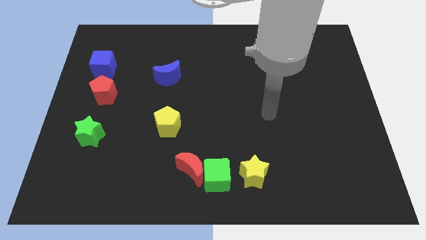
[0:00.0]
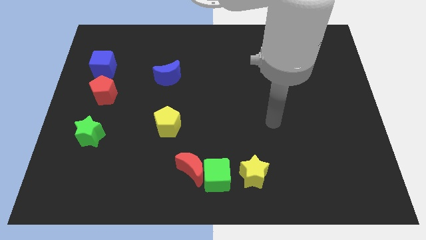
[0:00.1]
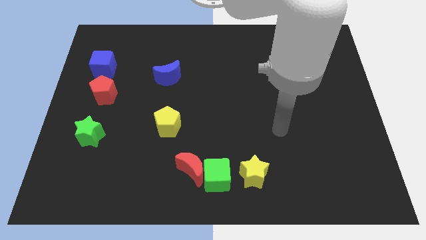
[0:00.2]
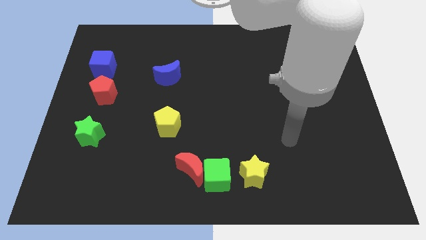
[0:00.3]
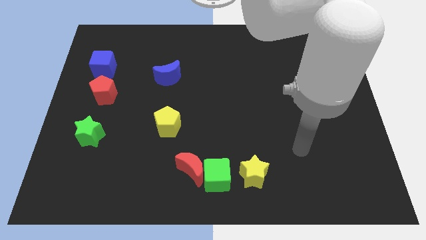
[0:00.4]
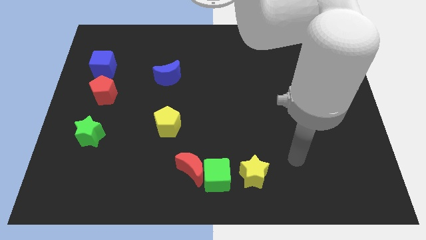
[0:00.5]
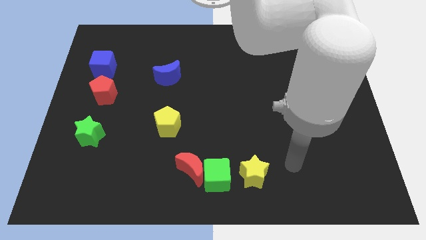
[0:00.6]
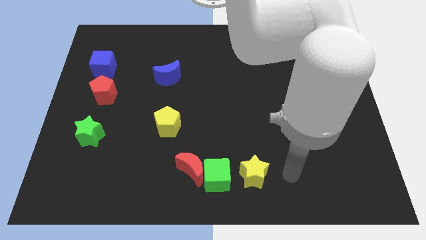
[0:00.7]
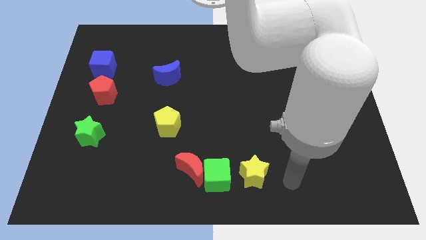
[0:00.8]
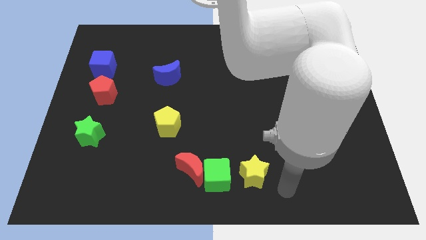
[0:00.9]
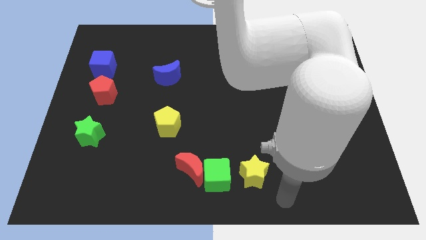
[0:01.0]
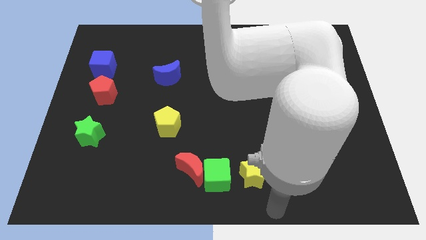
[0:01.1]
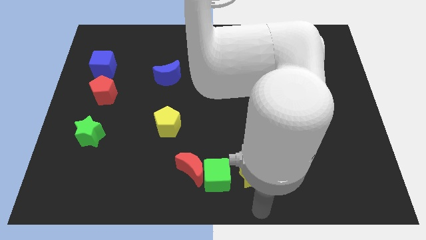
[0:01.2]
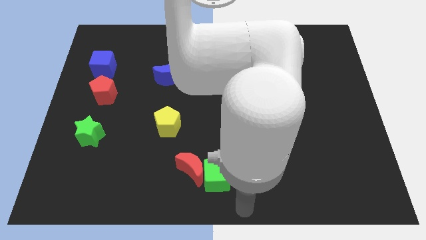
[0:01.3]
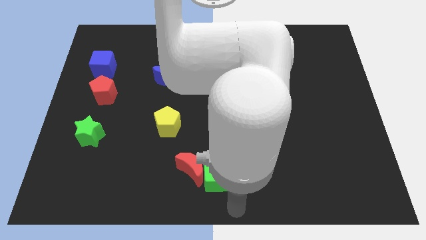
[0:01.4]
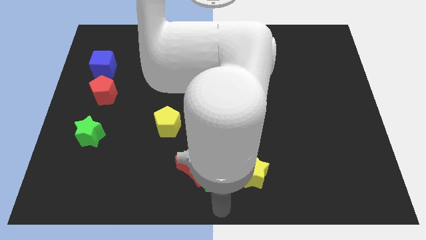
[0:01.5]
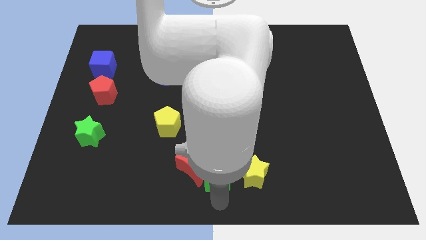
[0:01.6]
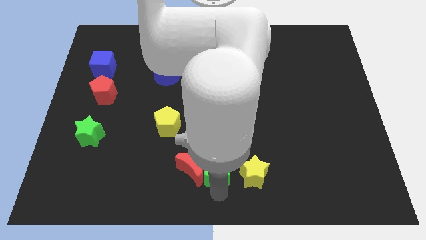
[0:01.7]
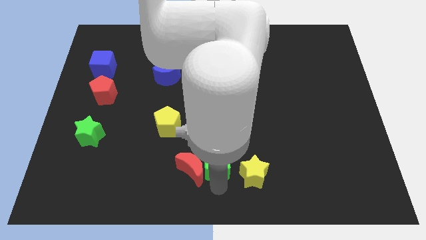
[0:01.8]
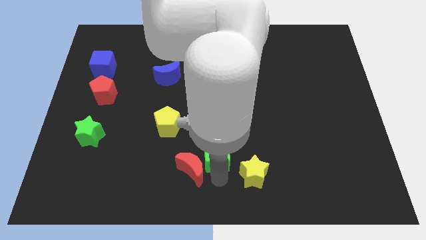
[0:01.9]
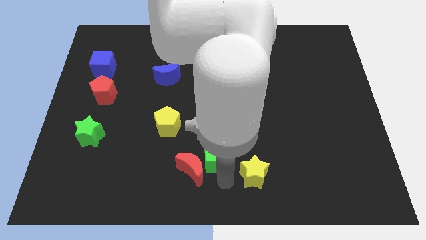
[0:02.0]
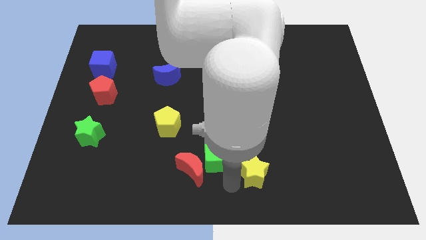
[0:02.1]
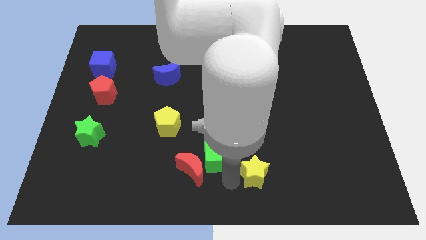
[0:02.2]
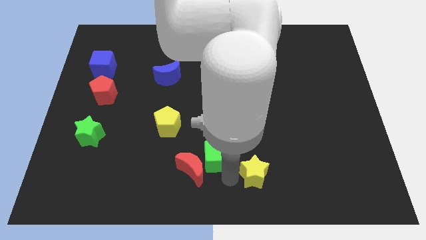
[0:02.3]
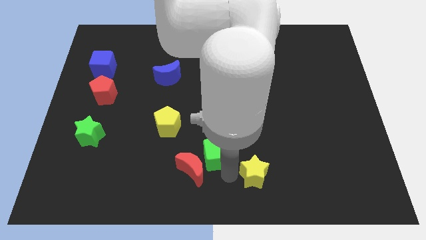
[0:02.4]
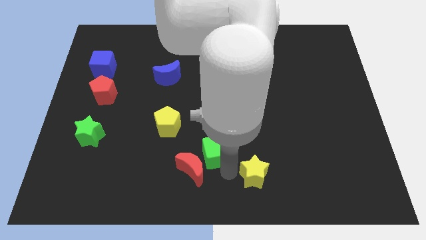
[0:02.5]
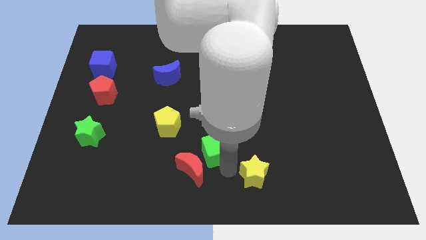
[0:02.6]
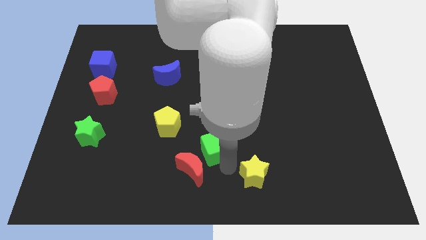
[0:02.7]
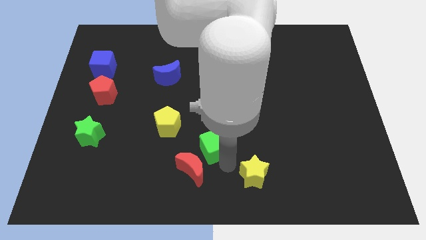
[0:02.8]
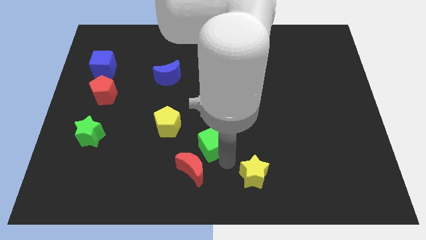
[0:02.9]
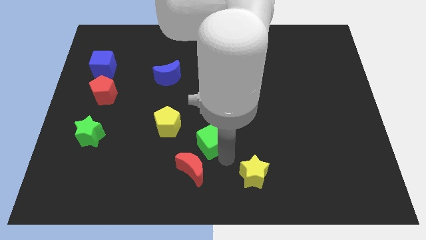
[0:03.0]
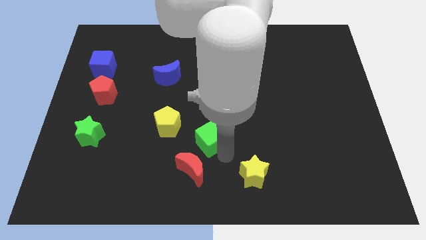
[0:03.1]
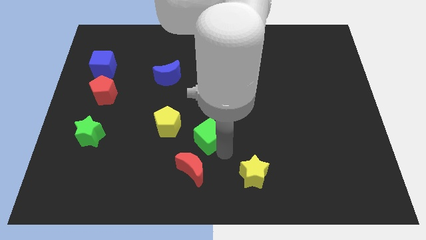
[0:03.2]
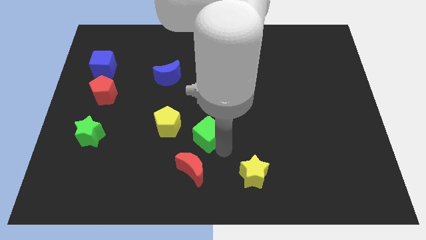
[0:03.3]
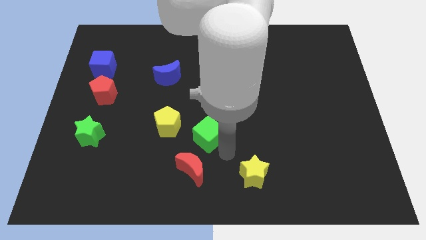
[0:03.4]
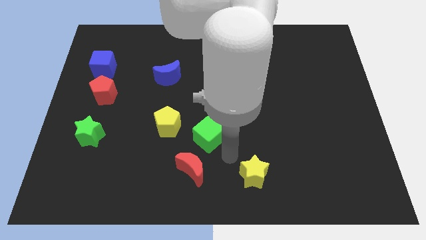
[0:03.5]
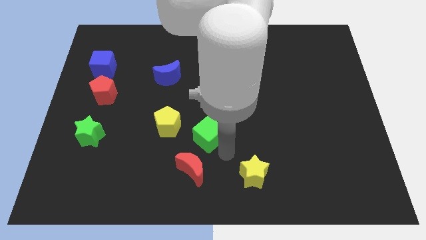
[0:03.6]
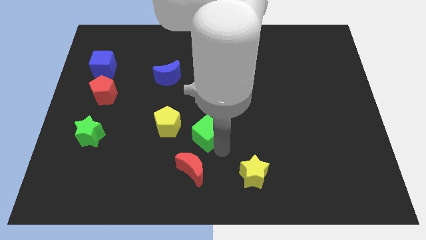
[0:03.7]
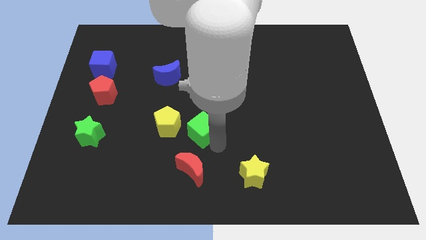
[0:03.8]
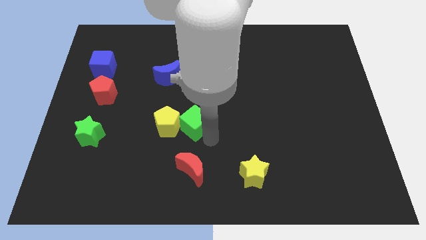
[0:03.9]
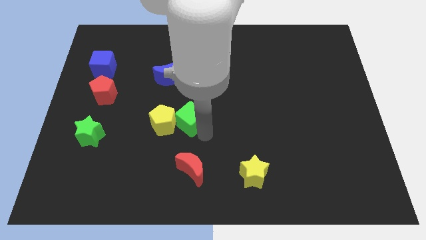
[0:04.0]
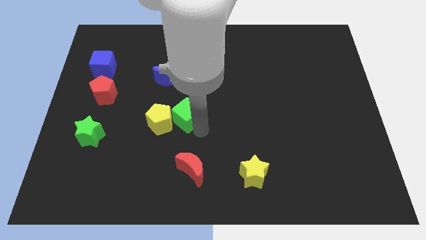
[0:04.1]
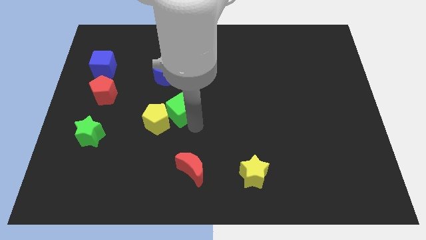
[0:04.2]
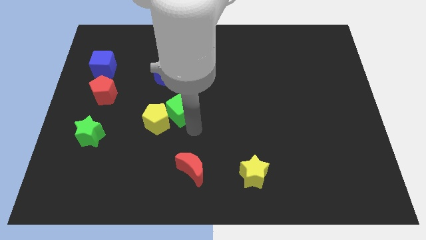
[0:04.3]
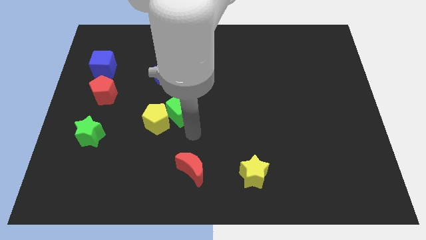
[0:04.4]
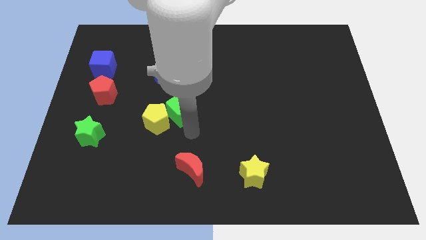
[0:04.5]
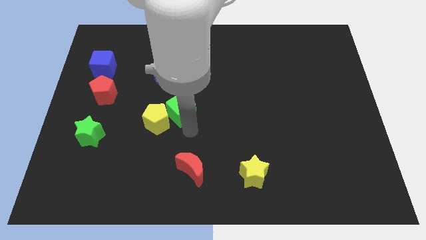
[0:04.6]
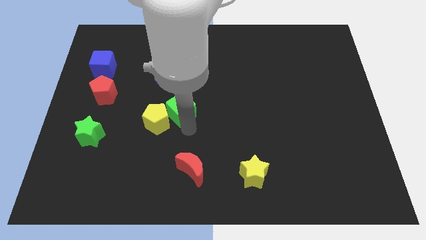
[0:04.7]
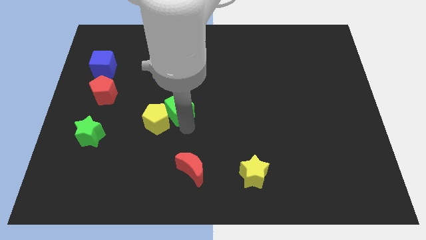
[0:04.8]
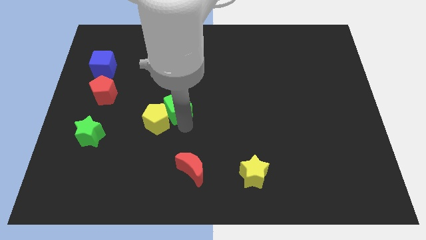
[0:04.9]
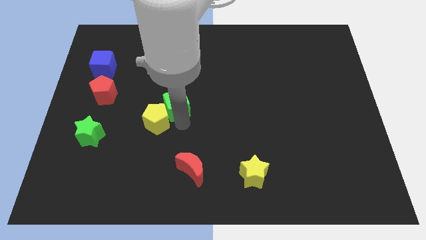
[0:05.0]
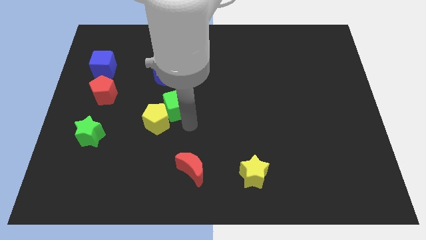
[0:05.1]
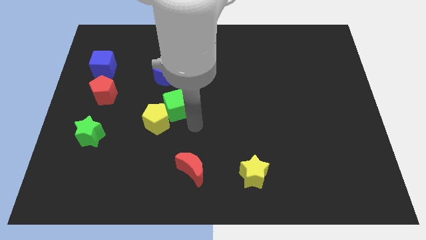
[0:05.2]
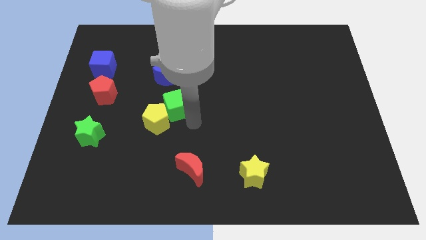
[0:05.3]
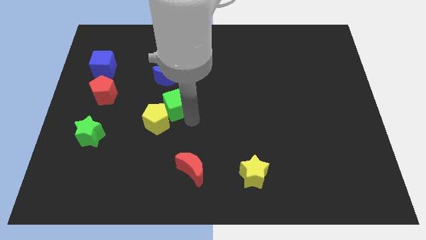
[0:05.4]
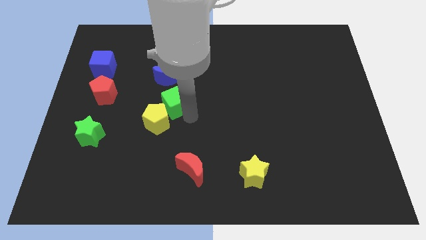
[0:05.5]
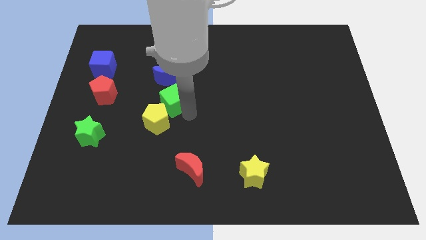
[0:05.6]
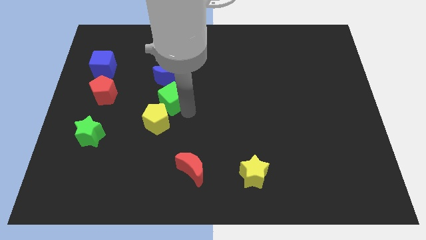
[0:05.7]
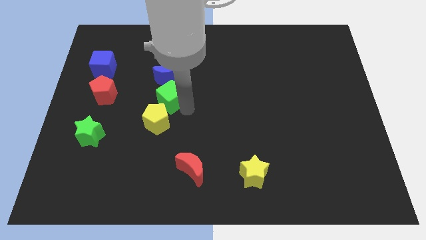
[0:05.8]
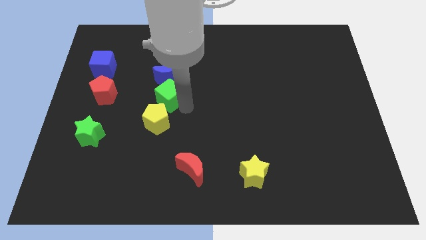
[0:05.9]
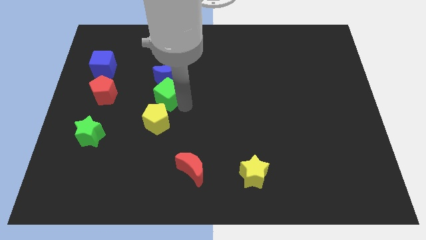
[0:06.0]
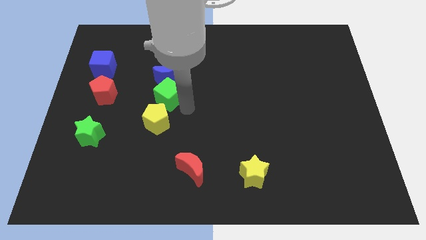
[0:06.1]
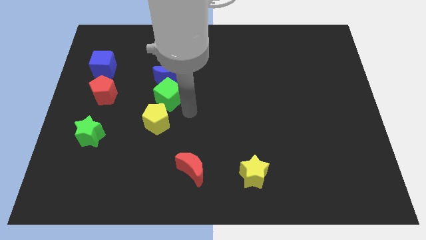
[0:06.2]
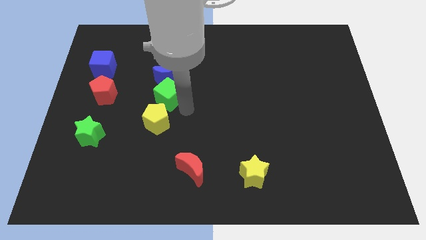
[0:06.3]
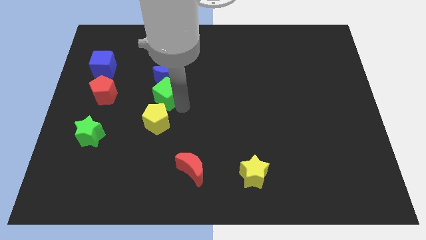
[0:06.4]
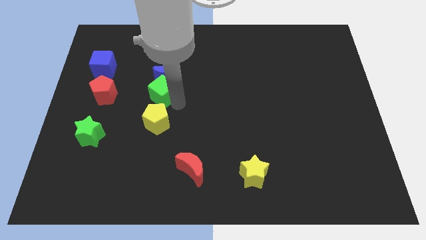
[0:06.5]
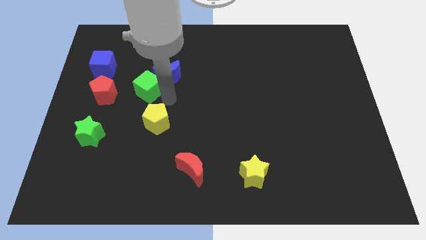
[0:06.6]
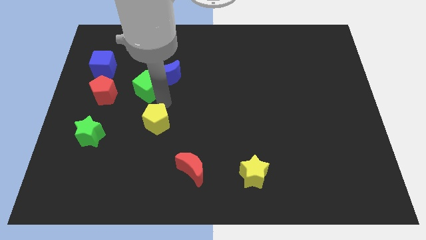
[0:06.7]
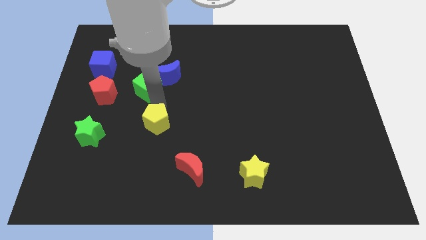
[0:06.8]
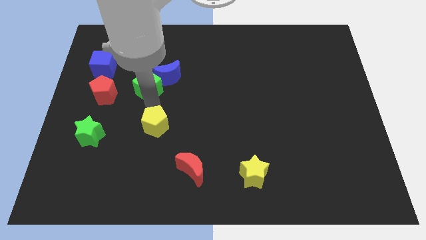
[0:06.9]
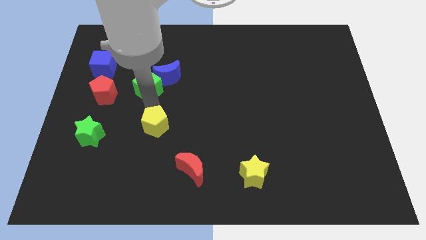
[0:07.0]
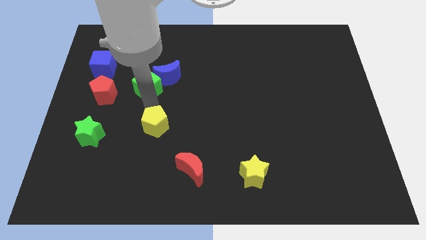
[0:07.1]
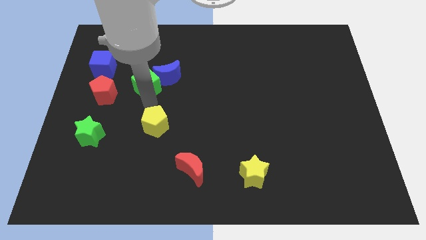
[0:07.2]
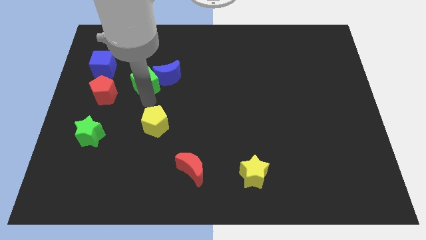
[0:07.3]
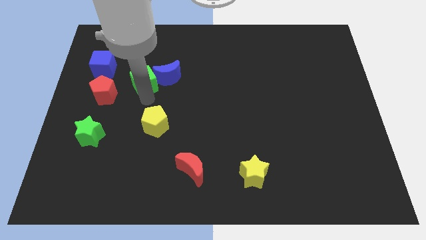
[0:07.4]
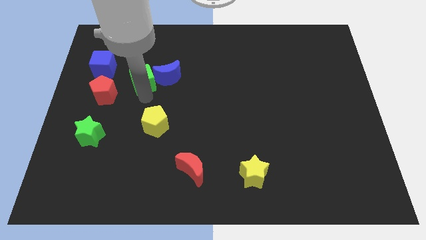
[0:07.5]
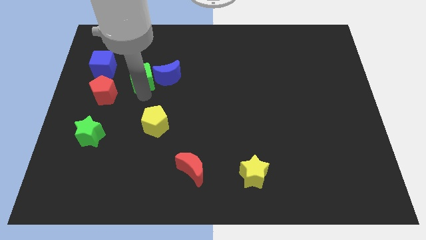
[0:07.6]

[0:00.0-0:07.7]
push the green cube right of the blue cube
